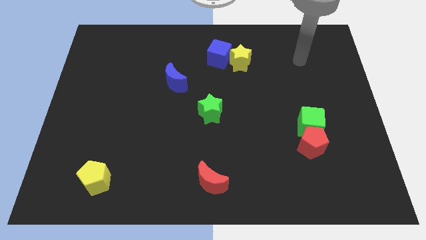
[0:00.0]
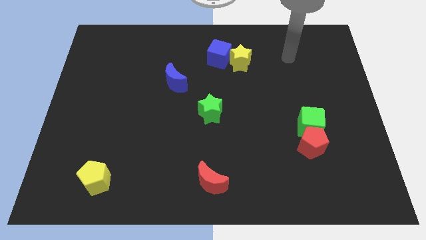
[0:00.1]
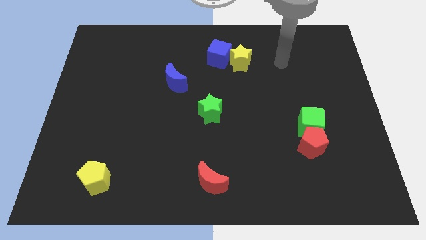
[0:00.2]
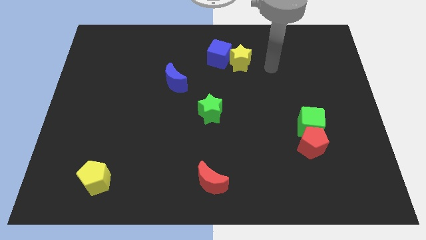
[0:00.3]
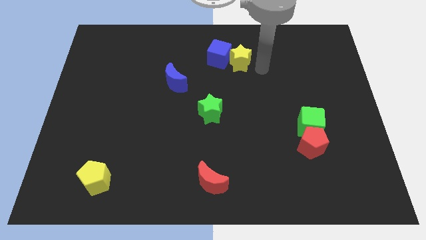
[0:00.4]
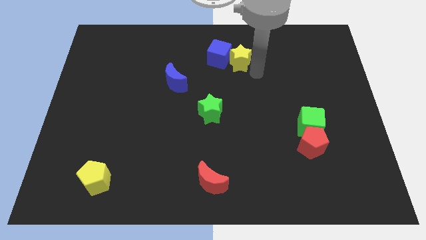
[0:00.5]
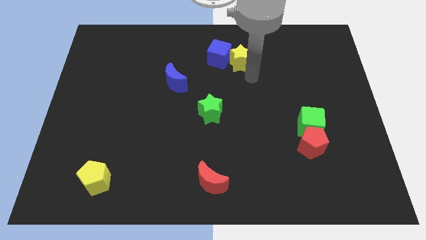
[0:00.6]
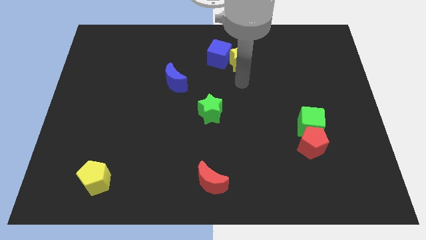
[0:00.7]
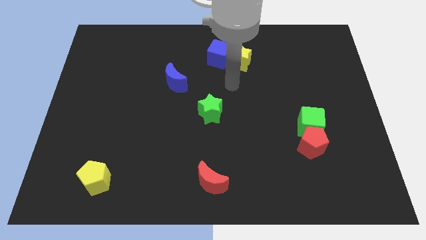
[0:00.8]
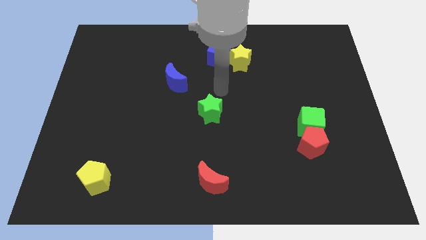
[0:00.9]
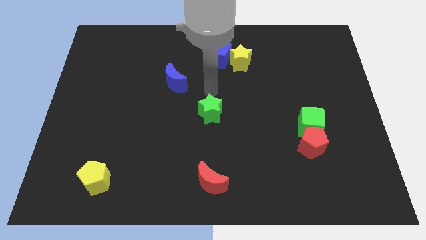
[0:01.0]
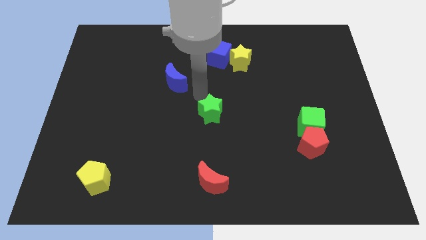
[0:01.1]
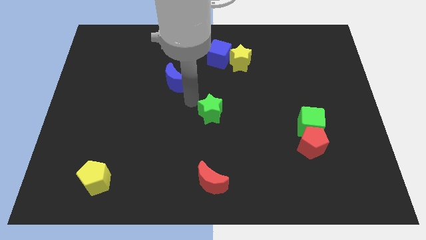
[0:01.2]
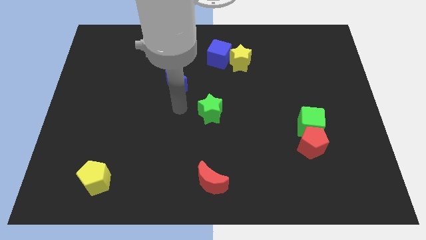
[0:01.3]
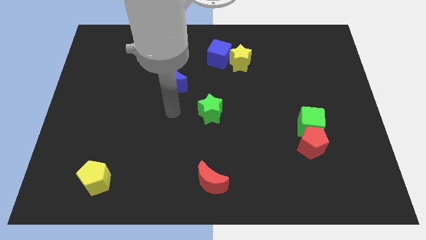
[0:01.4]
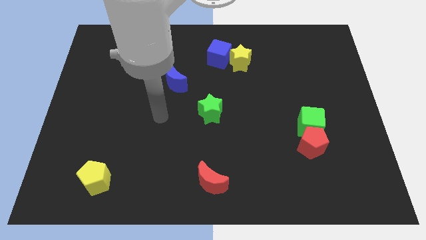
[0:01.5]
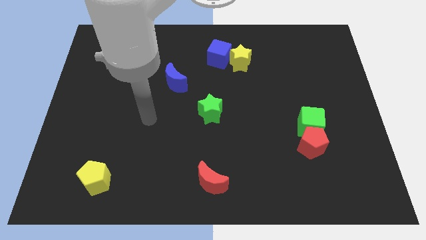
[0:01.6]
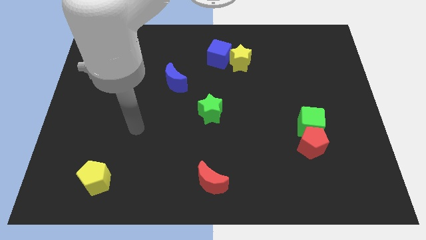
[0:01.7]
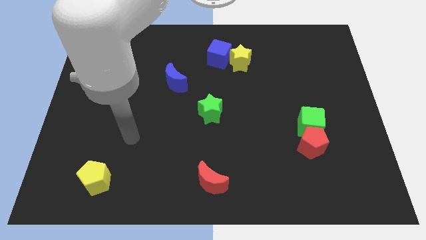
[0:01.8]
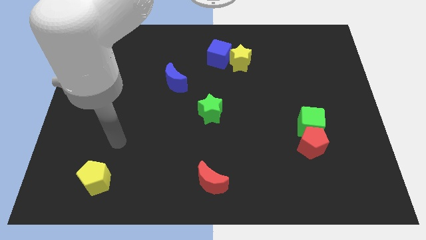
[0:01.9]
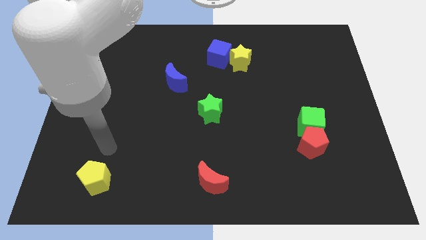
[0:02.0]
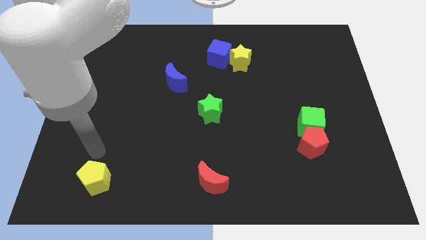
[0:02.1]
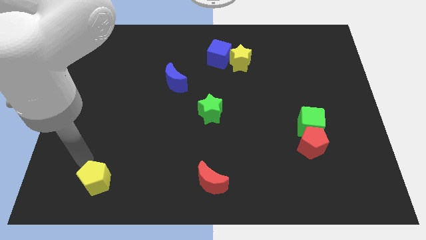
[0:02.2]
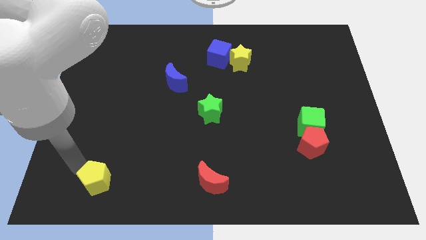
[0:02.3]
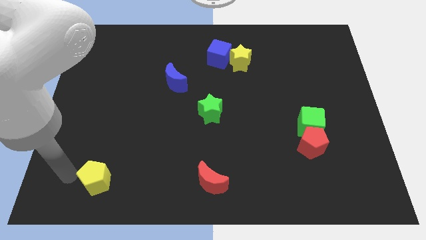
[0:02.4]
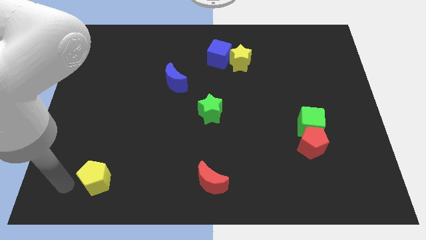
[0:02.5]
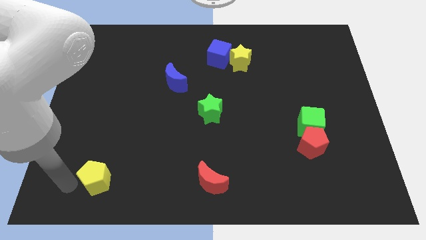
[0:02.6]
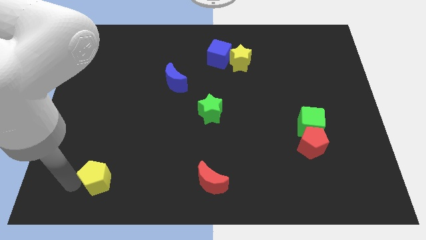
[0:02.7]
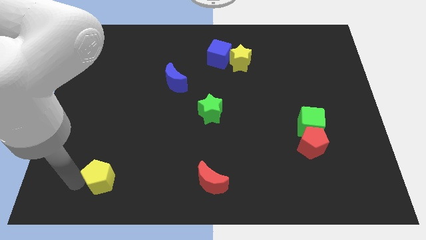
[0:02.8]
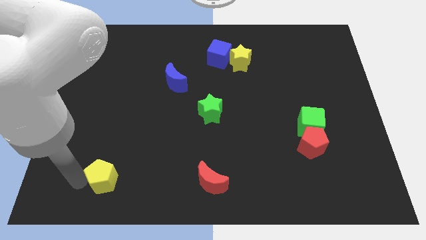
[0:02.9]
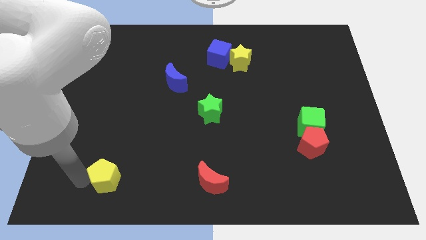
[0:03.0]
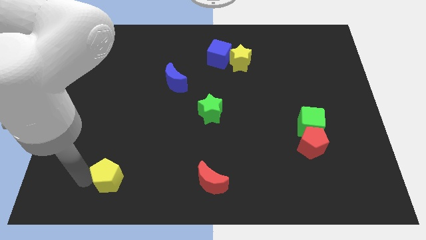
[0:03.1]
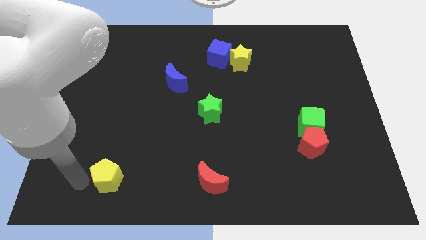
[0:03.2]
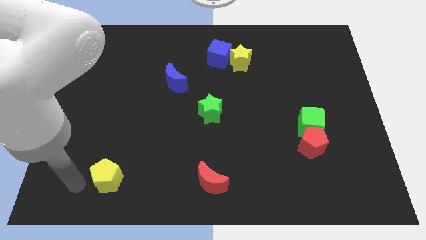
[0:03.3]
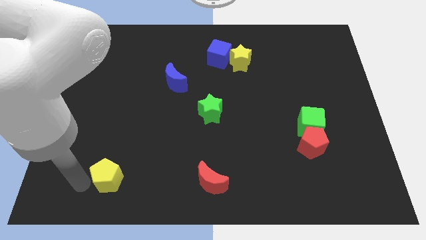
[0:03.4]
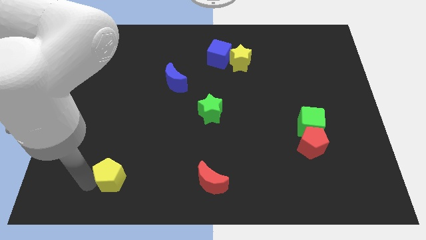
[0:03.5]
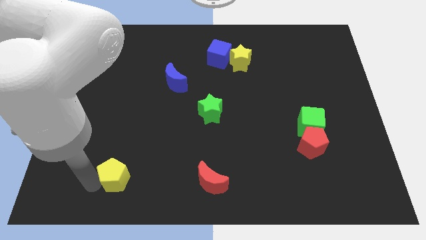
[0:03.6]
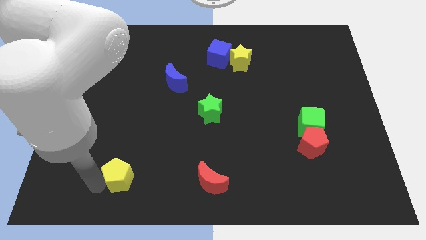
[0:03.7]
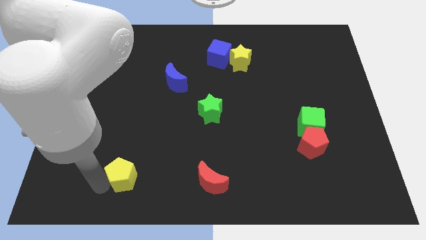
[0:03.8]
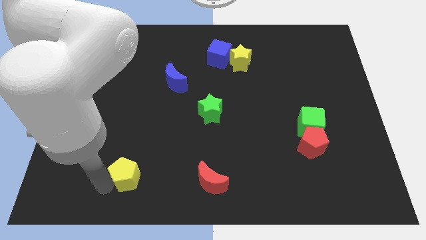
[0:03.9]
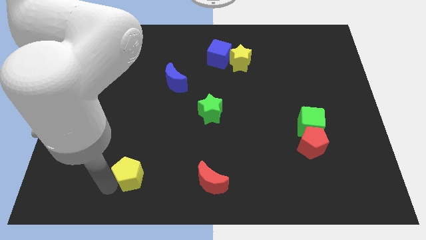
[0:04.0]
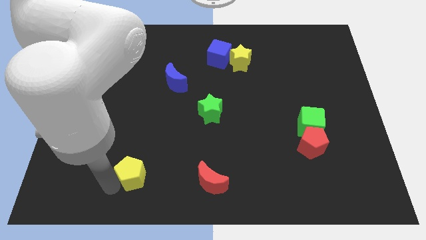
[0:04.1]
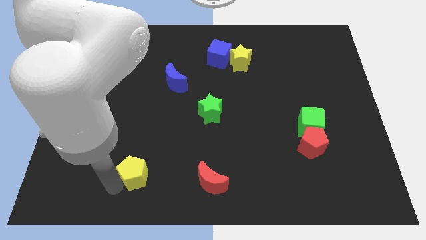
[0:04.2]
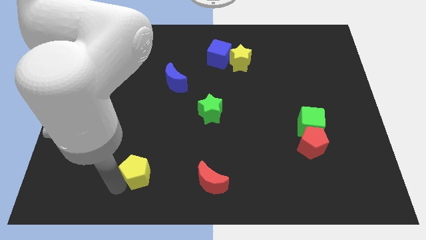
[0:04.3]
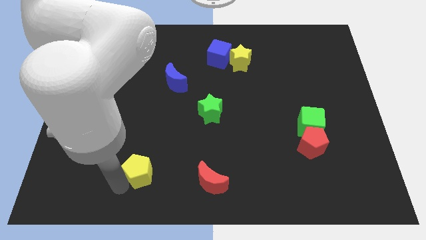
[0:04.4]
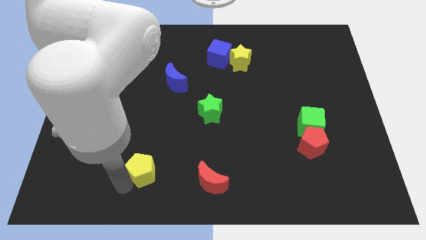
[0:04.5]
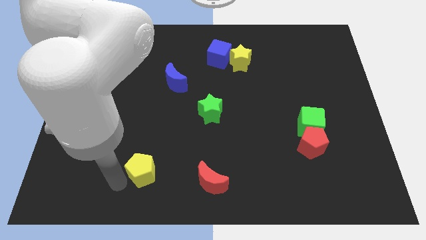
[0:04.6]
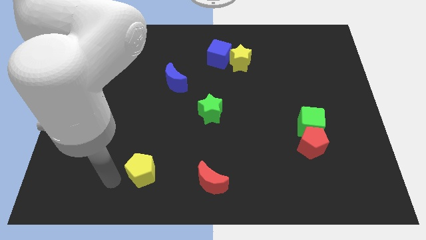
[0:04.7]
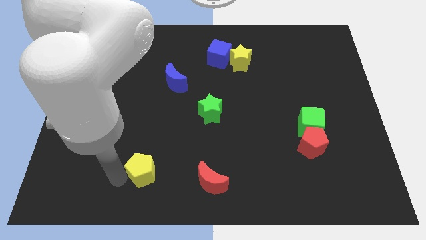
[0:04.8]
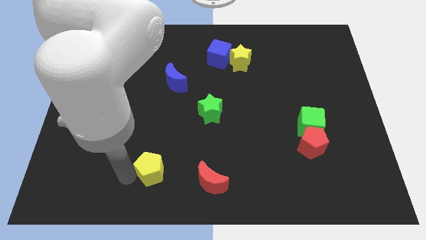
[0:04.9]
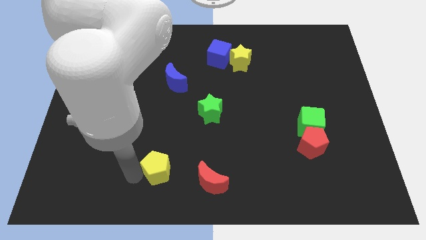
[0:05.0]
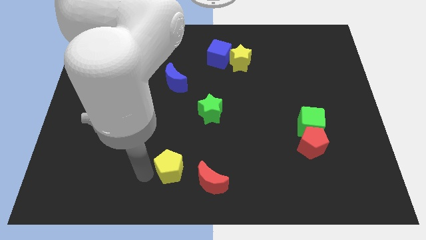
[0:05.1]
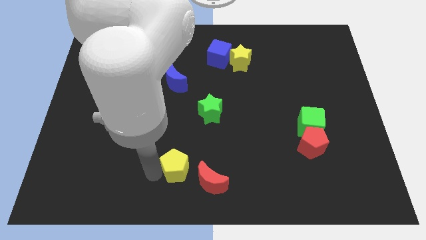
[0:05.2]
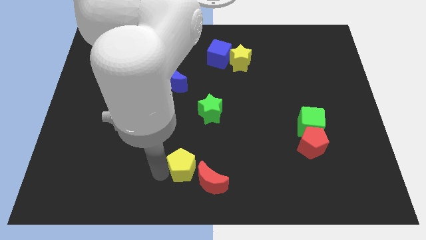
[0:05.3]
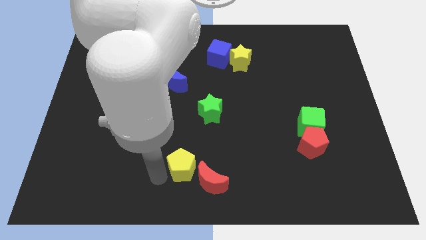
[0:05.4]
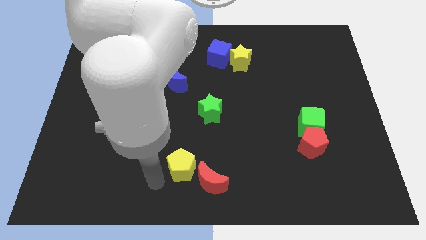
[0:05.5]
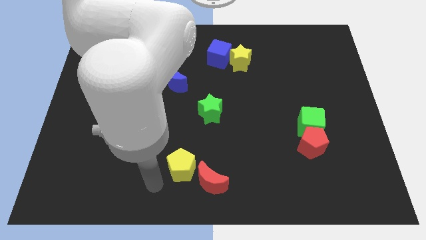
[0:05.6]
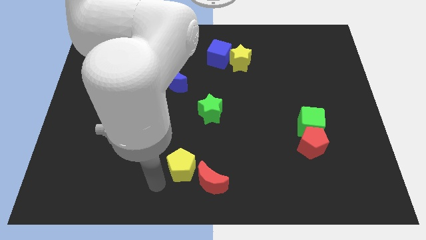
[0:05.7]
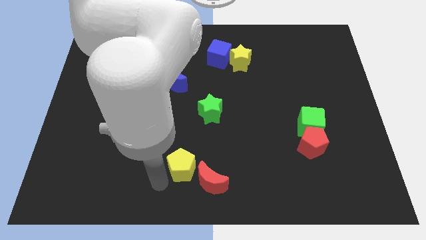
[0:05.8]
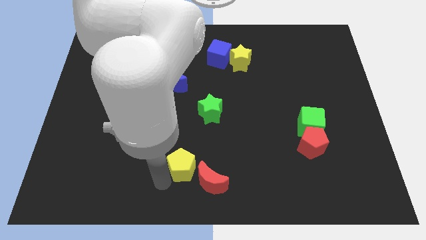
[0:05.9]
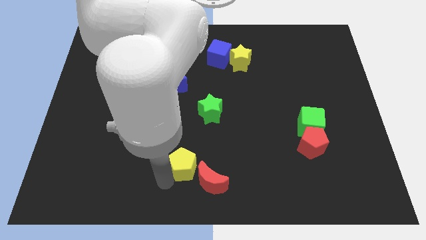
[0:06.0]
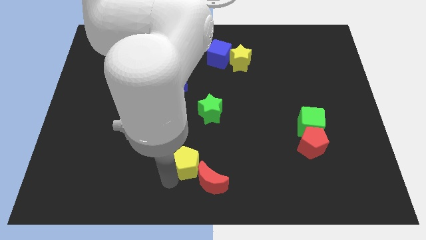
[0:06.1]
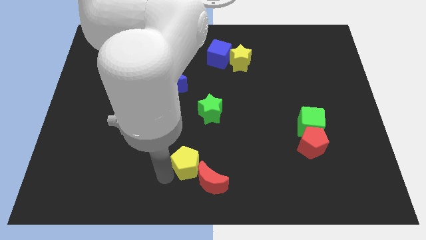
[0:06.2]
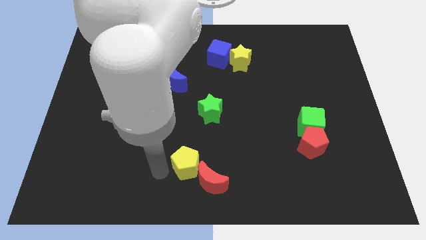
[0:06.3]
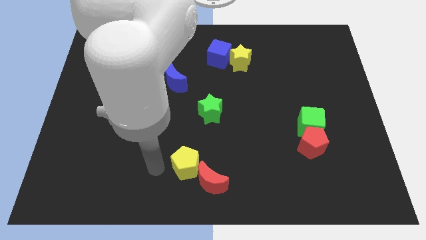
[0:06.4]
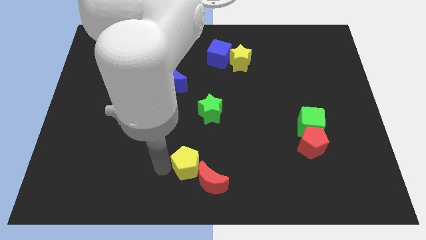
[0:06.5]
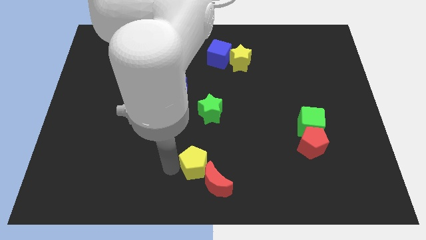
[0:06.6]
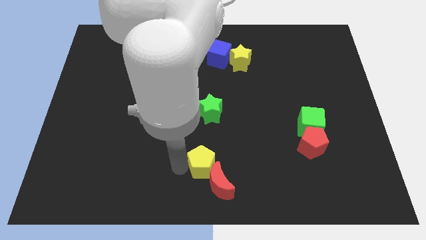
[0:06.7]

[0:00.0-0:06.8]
slide the yellow pentagon right

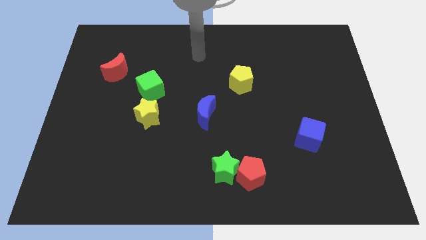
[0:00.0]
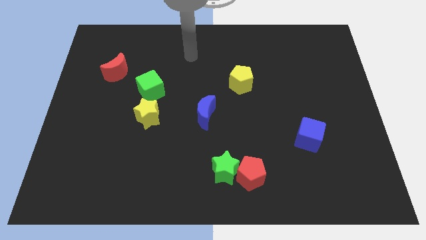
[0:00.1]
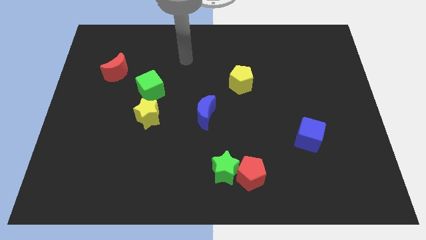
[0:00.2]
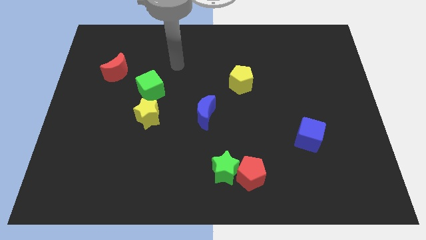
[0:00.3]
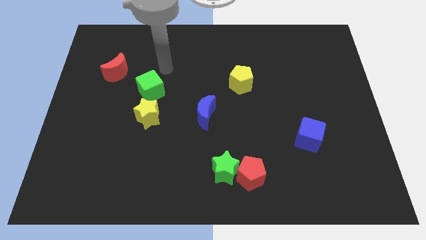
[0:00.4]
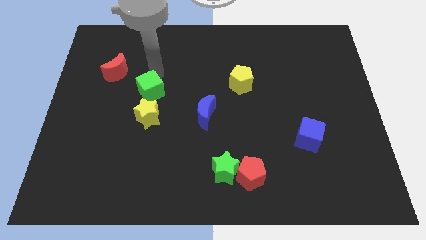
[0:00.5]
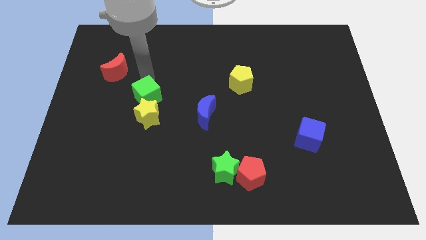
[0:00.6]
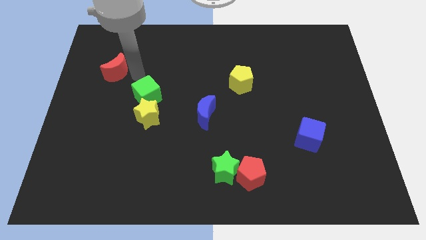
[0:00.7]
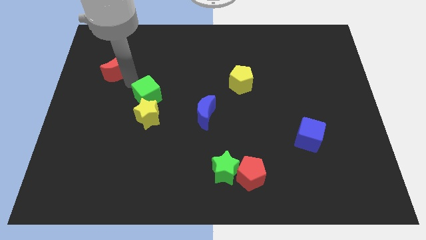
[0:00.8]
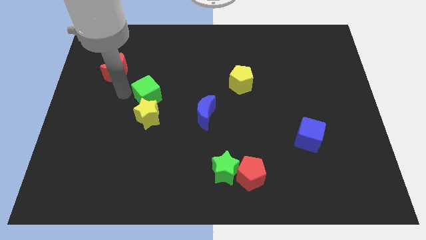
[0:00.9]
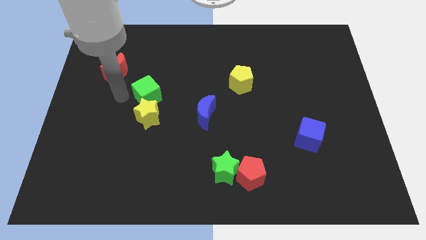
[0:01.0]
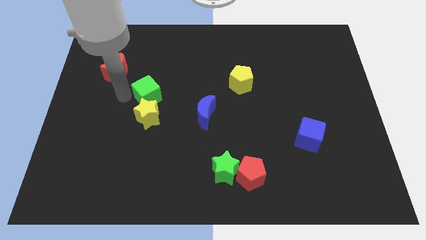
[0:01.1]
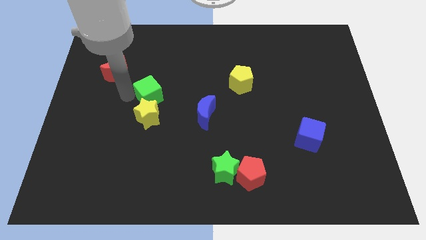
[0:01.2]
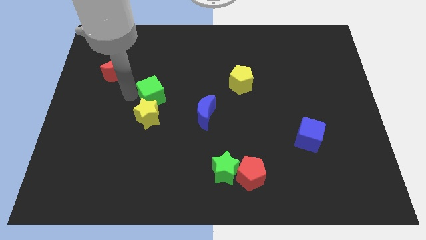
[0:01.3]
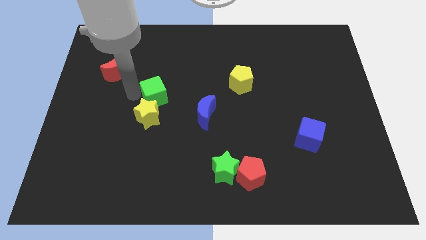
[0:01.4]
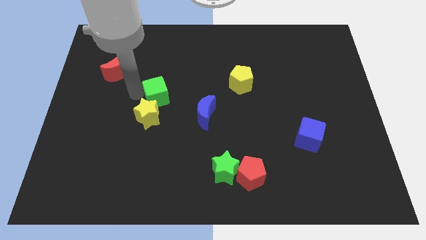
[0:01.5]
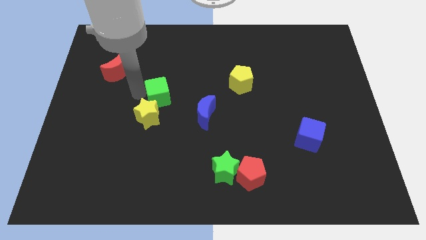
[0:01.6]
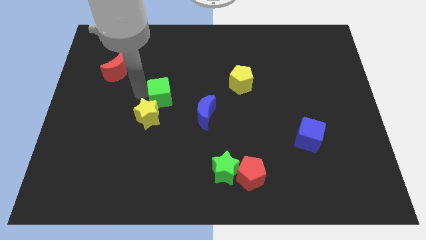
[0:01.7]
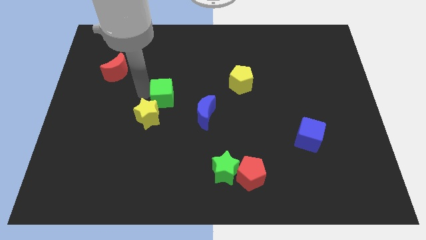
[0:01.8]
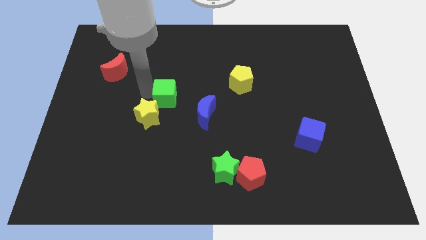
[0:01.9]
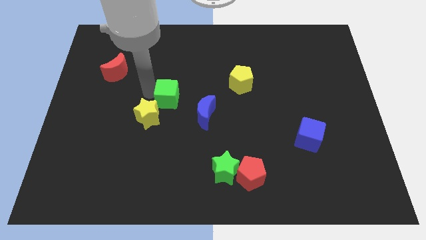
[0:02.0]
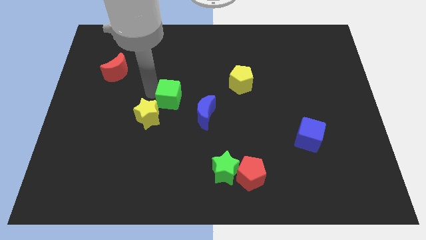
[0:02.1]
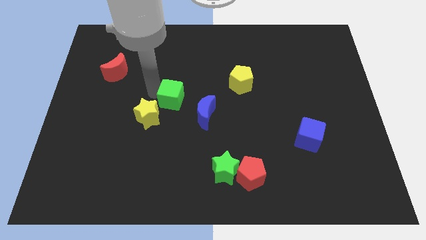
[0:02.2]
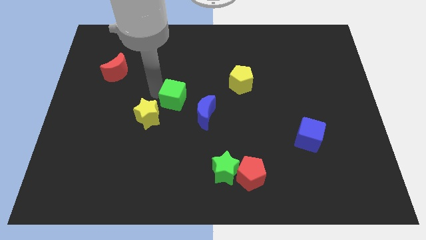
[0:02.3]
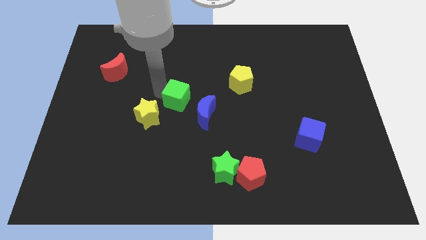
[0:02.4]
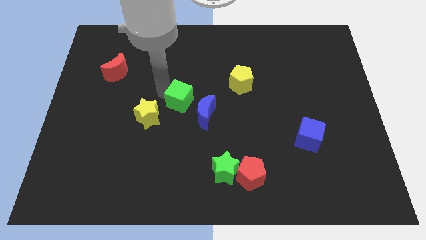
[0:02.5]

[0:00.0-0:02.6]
slightly push the green cube downwards and to the right diagonally
